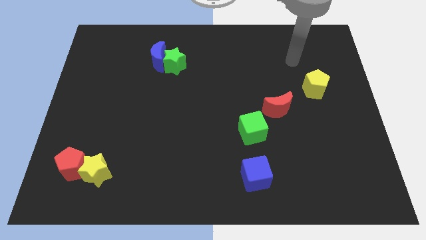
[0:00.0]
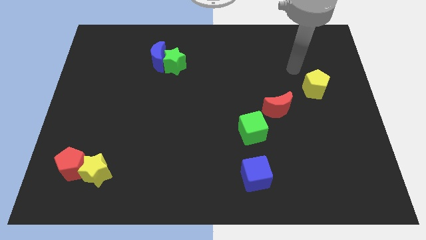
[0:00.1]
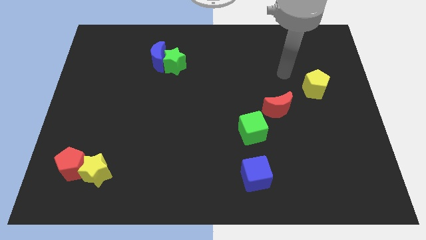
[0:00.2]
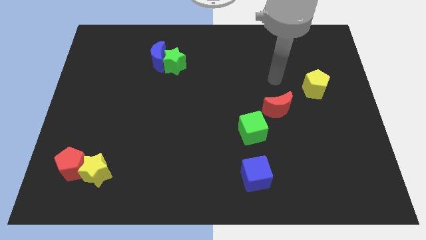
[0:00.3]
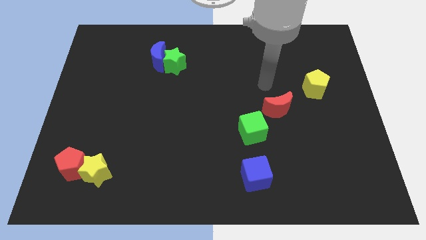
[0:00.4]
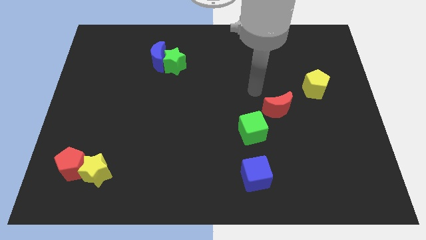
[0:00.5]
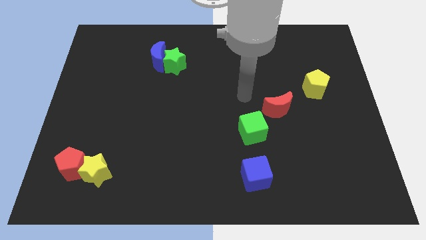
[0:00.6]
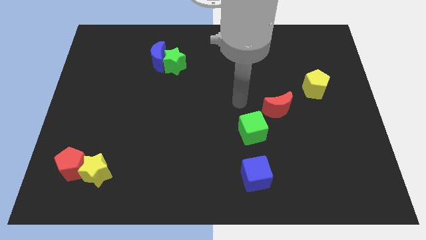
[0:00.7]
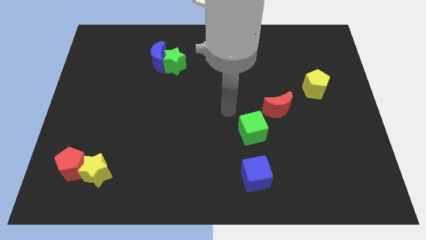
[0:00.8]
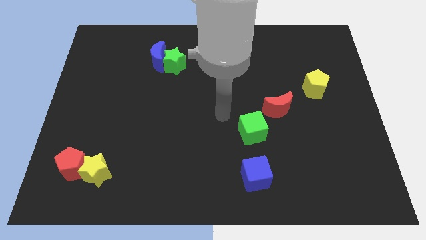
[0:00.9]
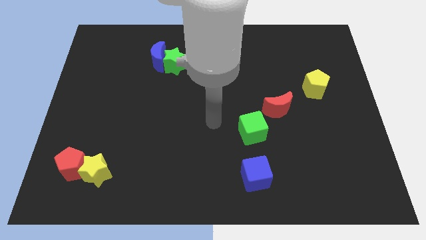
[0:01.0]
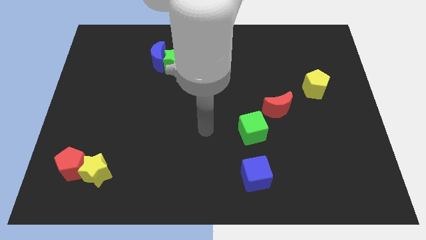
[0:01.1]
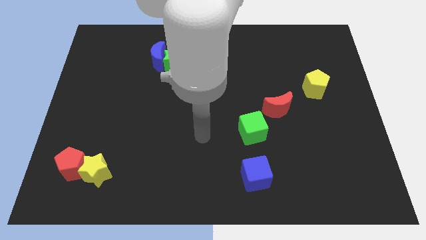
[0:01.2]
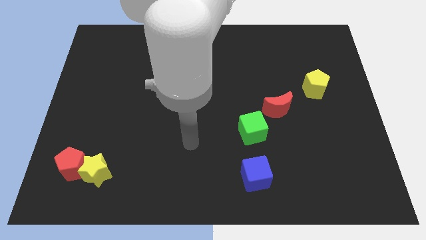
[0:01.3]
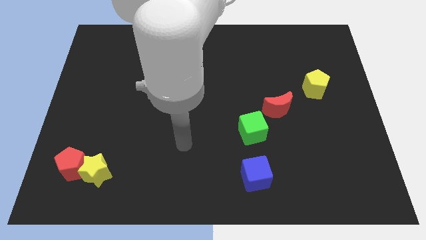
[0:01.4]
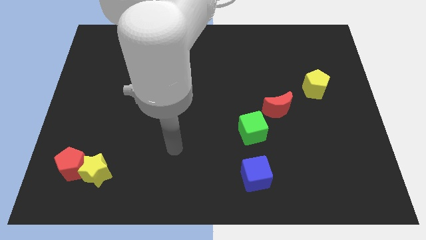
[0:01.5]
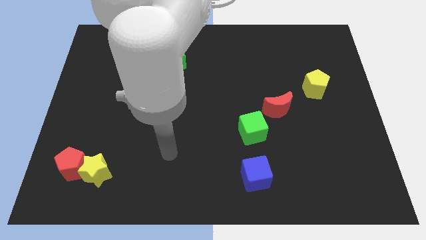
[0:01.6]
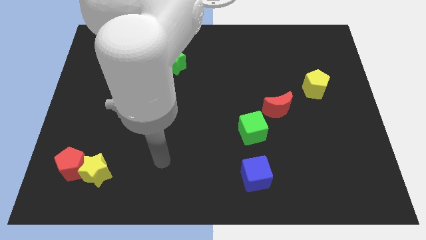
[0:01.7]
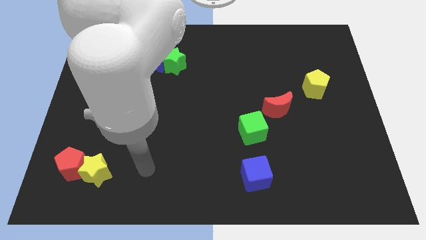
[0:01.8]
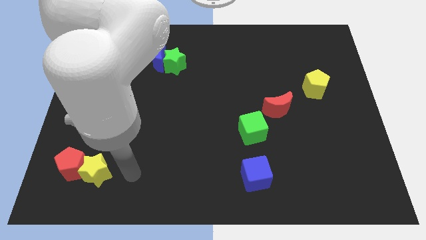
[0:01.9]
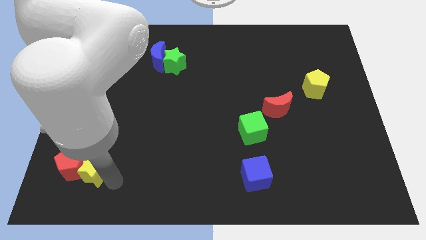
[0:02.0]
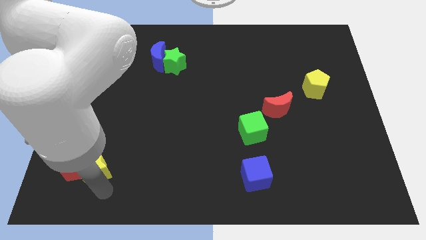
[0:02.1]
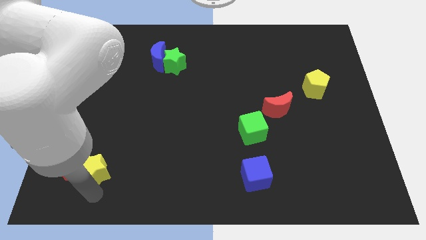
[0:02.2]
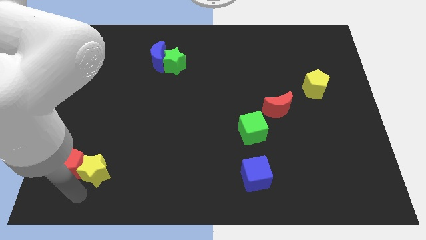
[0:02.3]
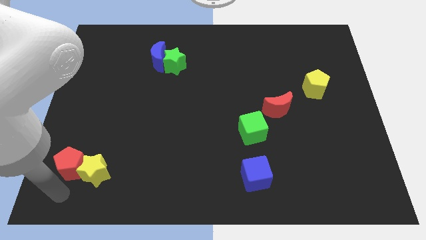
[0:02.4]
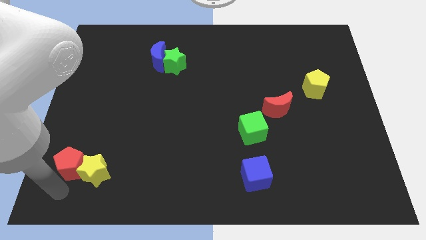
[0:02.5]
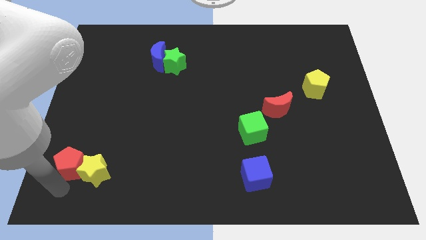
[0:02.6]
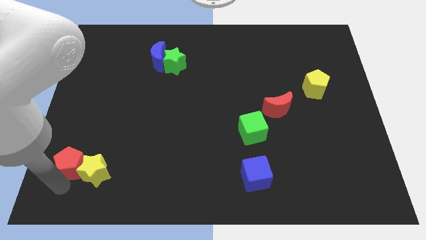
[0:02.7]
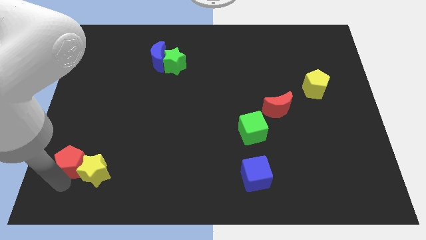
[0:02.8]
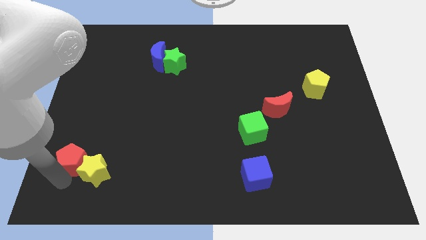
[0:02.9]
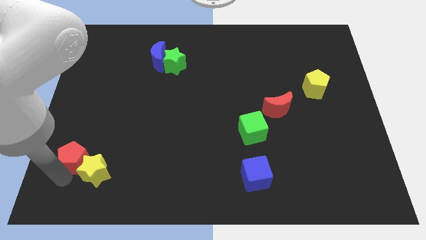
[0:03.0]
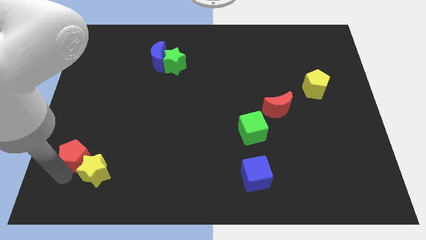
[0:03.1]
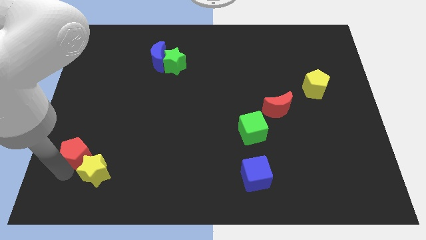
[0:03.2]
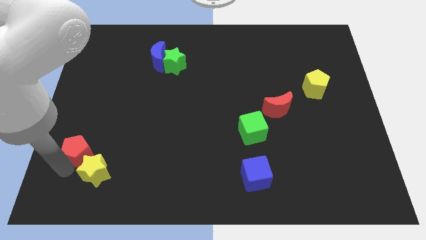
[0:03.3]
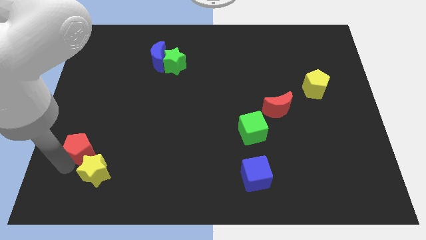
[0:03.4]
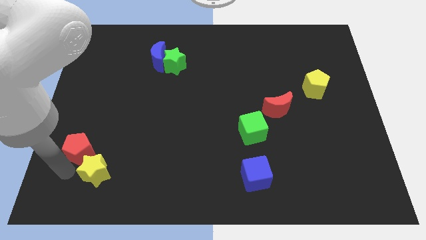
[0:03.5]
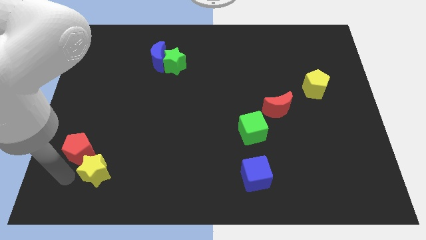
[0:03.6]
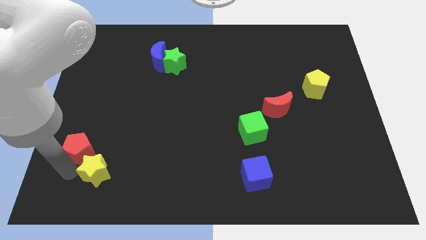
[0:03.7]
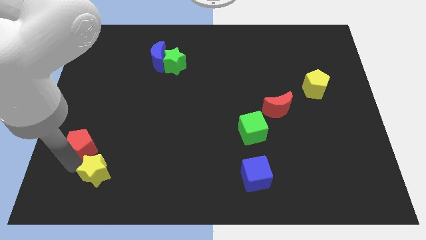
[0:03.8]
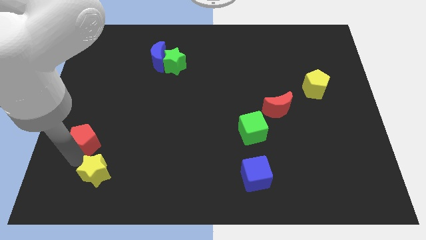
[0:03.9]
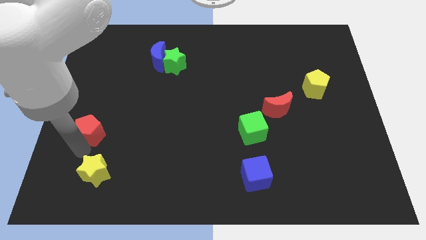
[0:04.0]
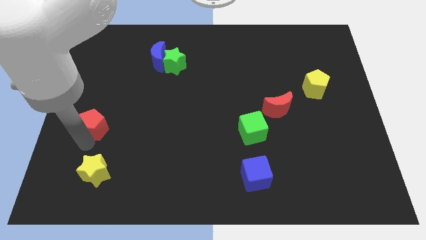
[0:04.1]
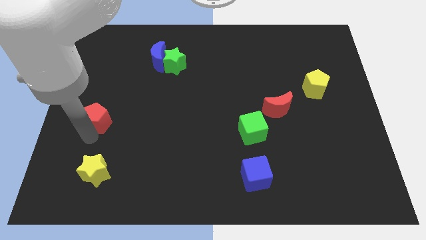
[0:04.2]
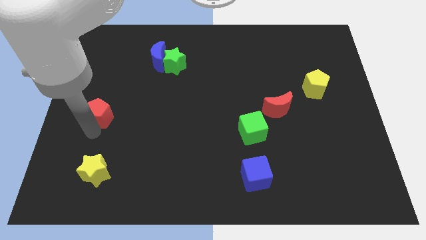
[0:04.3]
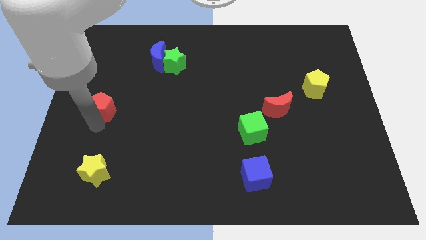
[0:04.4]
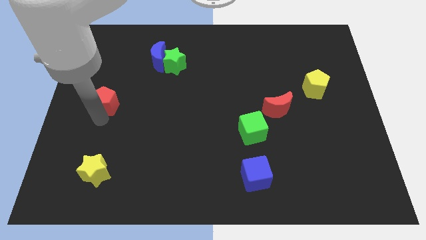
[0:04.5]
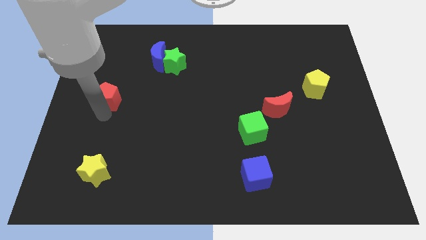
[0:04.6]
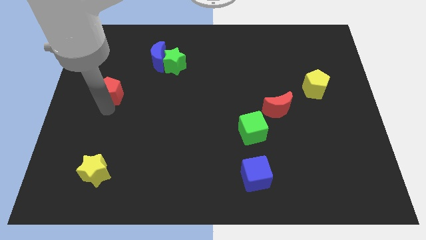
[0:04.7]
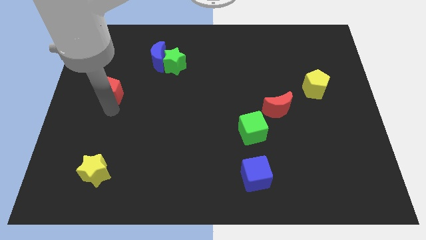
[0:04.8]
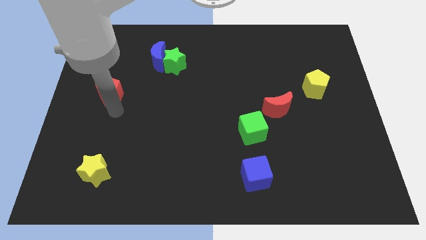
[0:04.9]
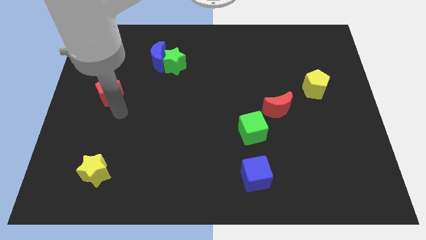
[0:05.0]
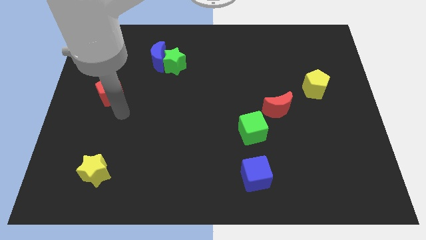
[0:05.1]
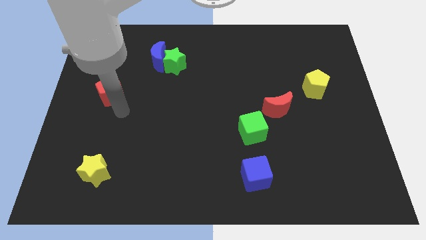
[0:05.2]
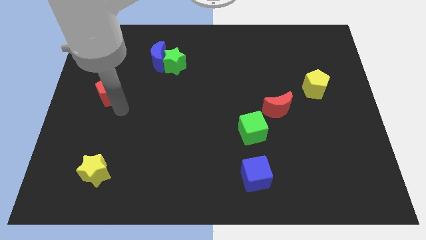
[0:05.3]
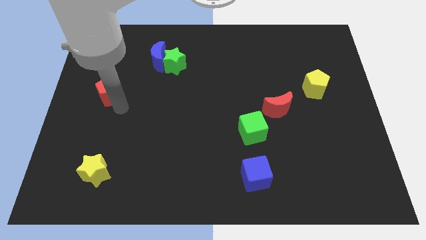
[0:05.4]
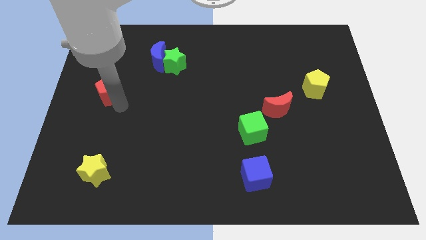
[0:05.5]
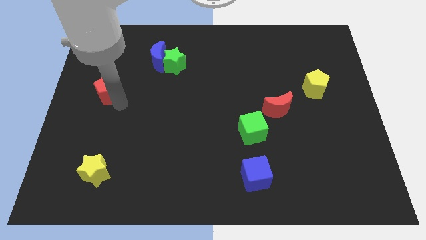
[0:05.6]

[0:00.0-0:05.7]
push the red pentagon upwards

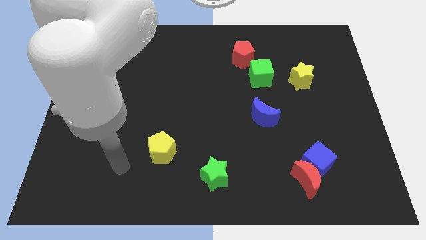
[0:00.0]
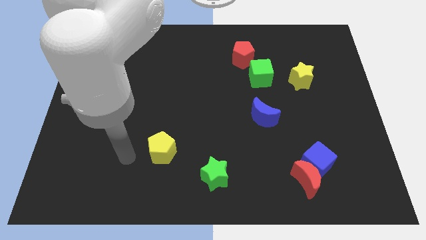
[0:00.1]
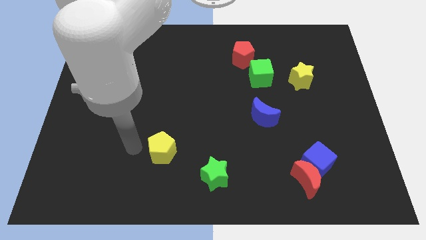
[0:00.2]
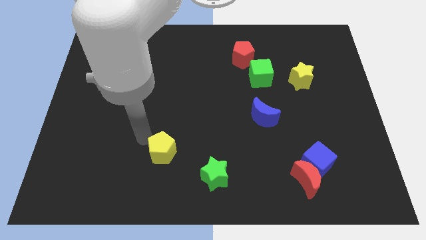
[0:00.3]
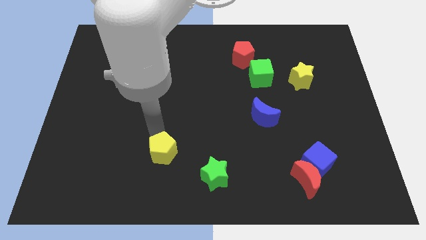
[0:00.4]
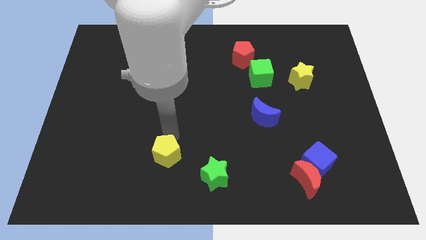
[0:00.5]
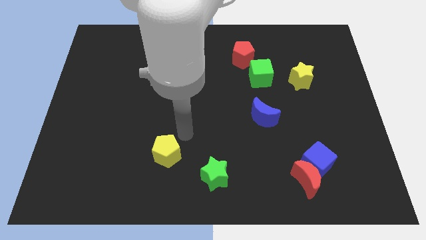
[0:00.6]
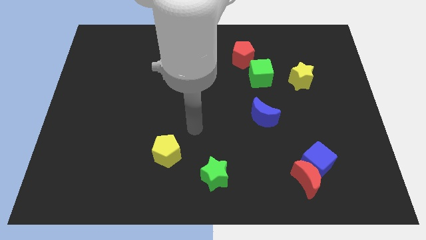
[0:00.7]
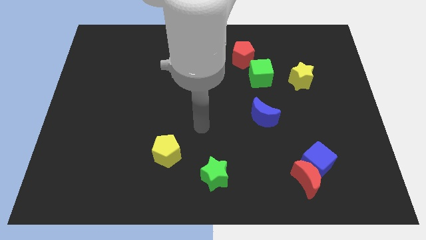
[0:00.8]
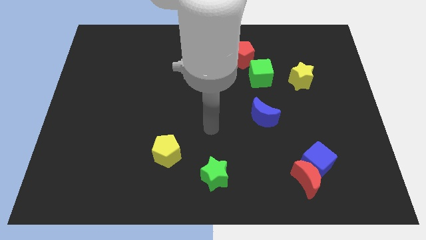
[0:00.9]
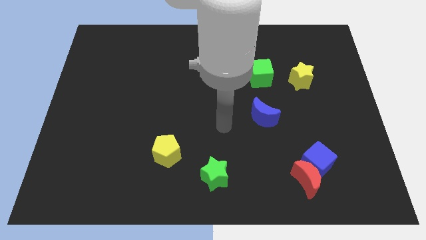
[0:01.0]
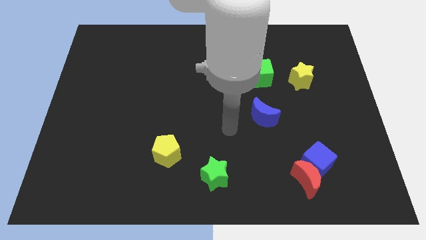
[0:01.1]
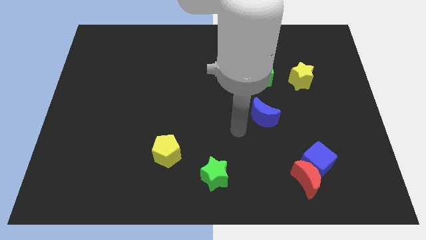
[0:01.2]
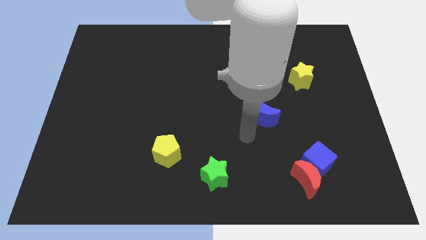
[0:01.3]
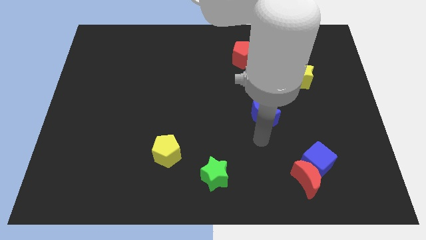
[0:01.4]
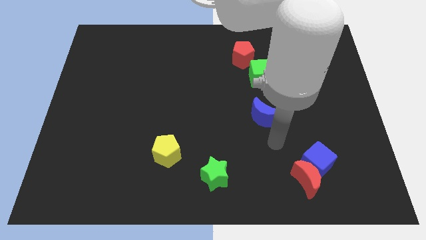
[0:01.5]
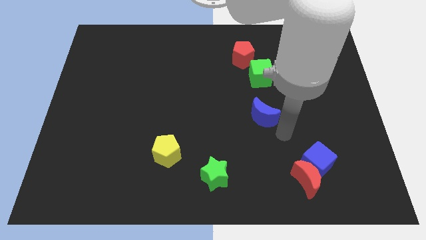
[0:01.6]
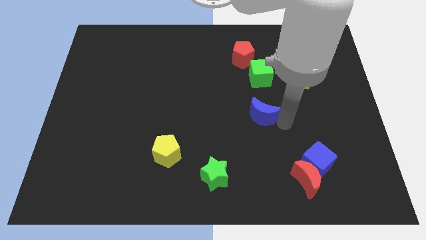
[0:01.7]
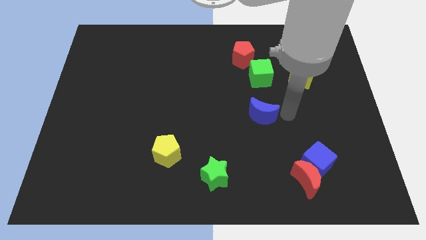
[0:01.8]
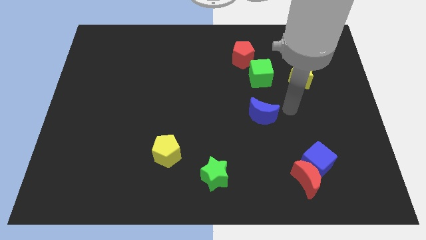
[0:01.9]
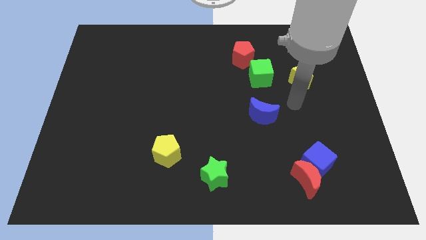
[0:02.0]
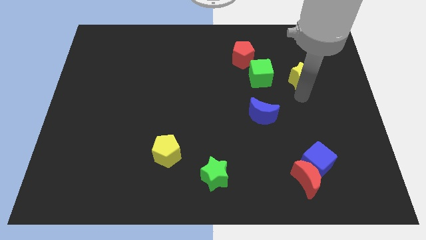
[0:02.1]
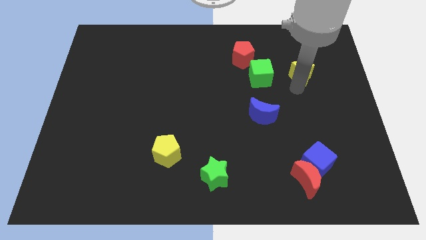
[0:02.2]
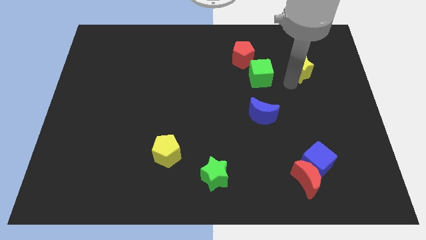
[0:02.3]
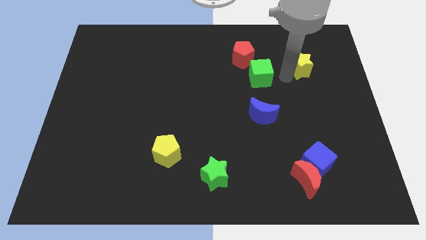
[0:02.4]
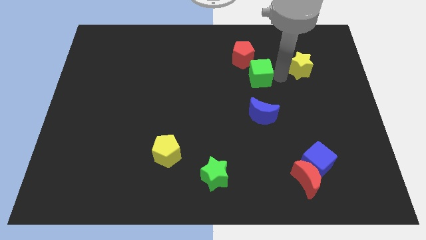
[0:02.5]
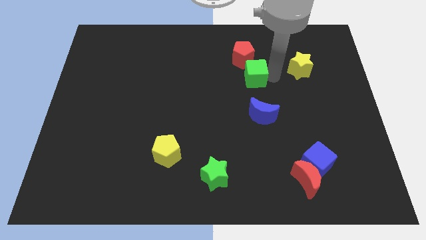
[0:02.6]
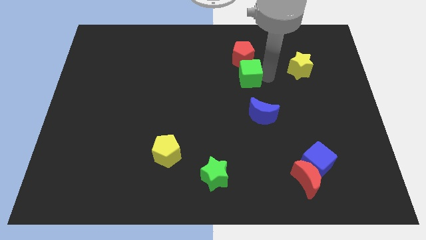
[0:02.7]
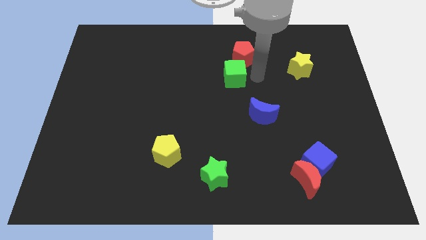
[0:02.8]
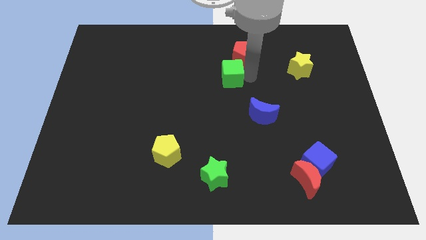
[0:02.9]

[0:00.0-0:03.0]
push the green cube to the left somewhat
